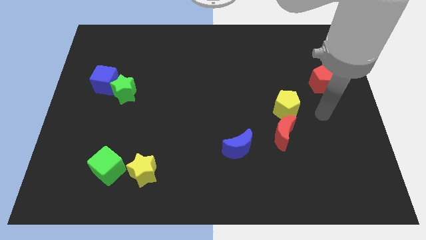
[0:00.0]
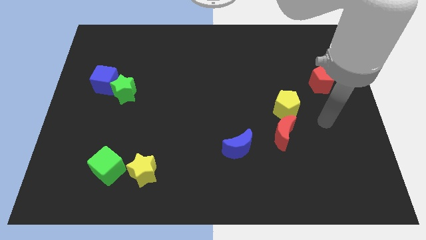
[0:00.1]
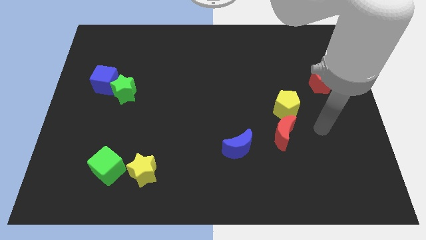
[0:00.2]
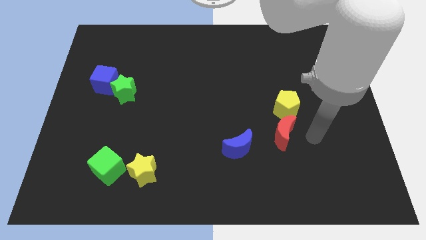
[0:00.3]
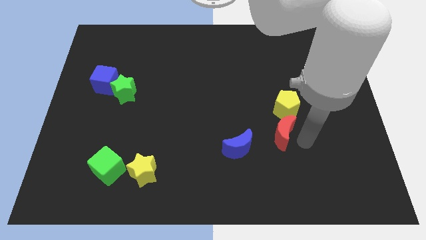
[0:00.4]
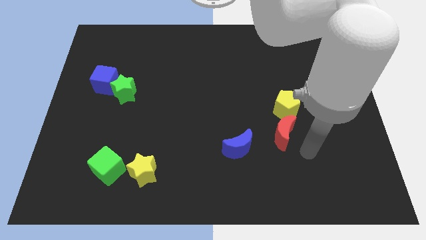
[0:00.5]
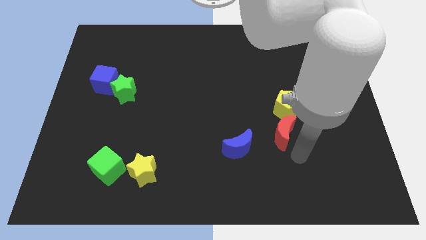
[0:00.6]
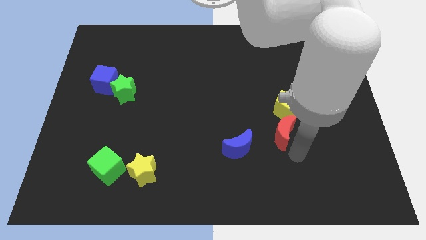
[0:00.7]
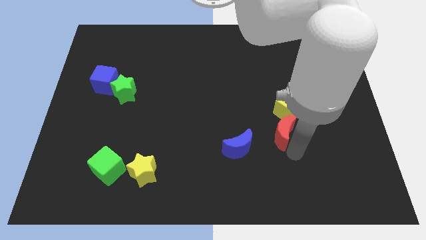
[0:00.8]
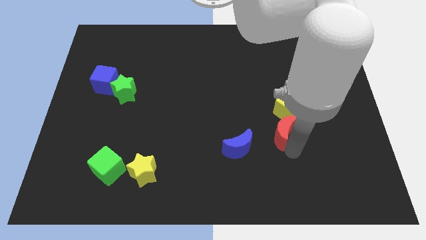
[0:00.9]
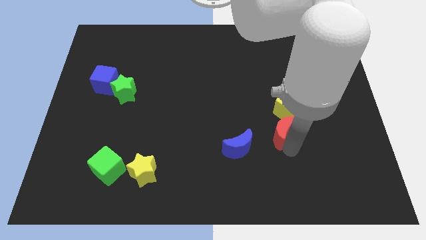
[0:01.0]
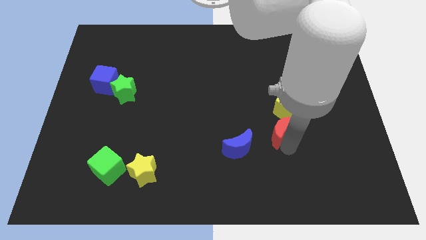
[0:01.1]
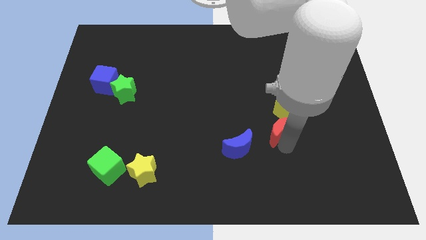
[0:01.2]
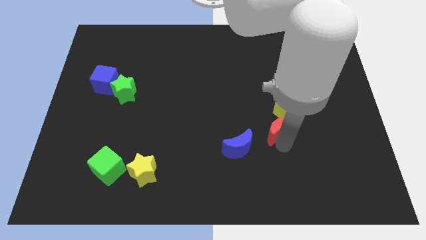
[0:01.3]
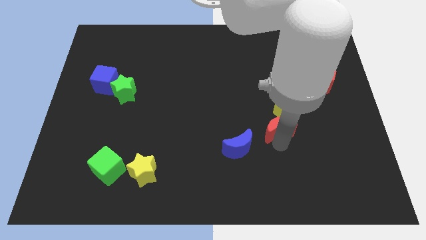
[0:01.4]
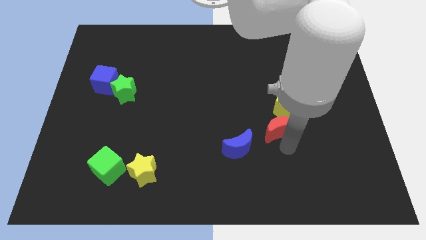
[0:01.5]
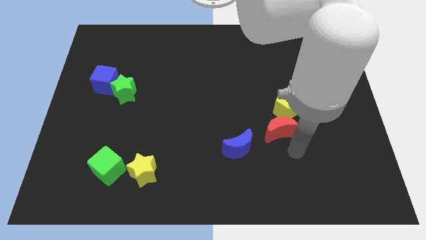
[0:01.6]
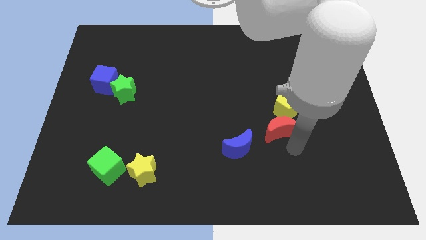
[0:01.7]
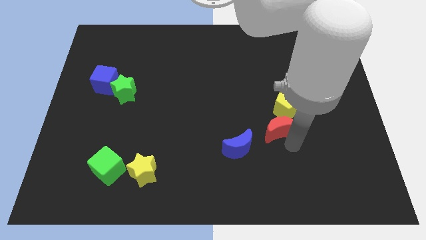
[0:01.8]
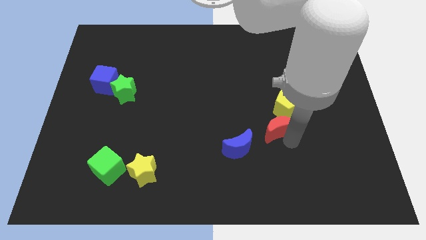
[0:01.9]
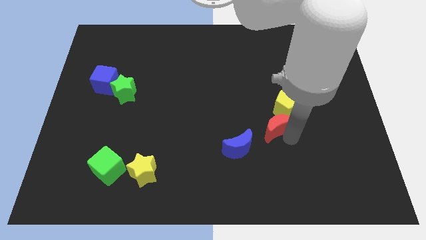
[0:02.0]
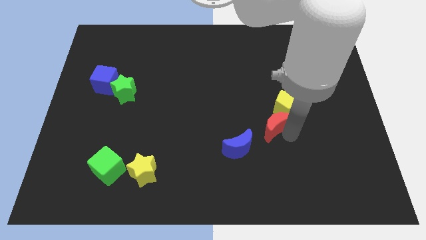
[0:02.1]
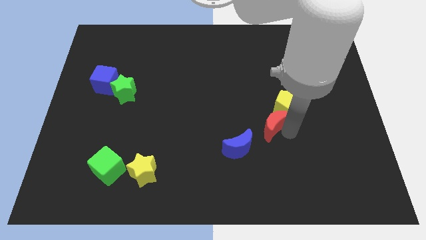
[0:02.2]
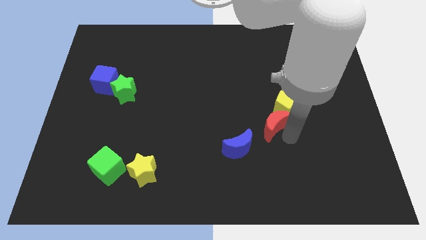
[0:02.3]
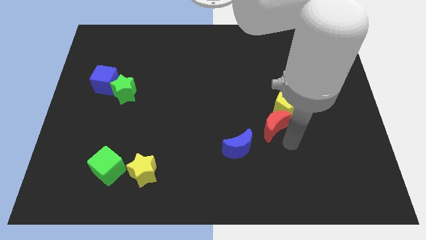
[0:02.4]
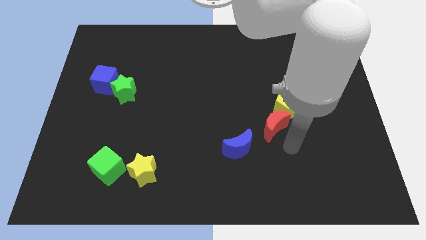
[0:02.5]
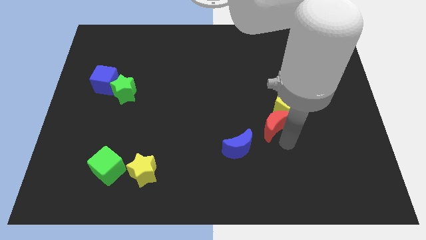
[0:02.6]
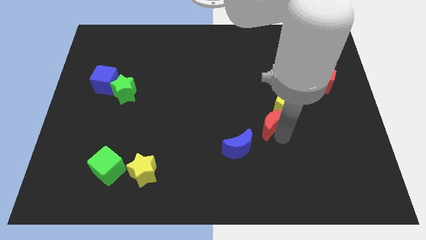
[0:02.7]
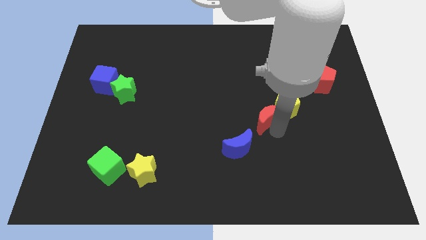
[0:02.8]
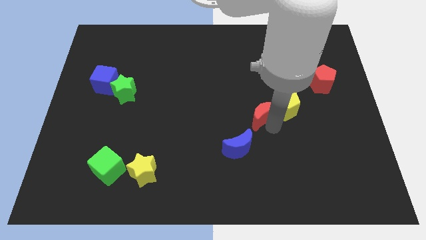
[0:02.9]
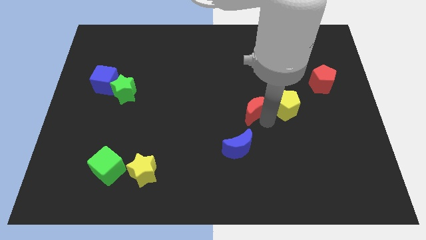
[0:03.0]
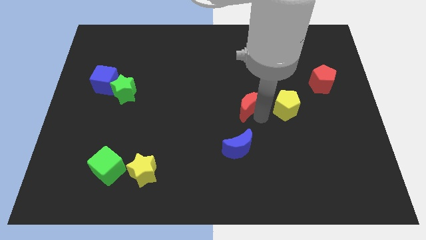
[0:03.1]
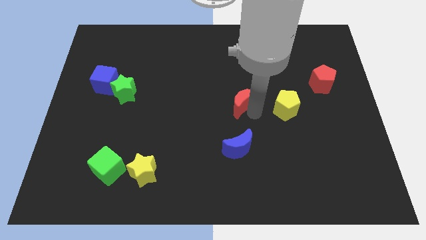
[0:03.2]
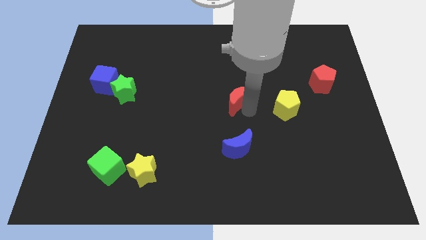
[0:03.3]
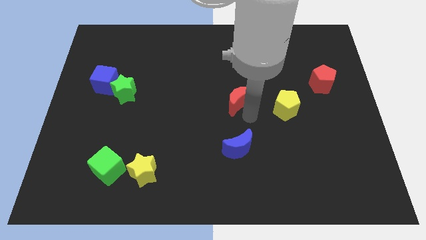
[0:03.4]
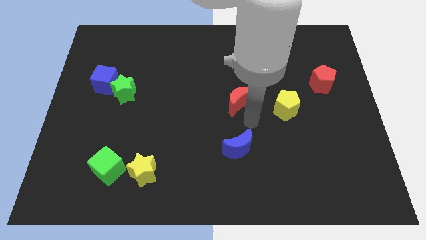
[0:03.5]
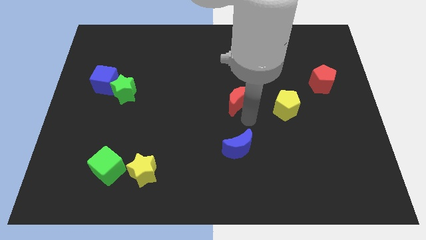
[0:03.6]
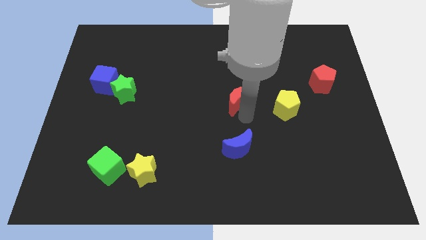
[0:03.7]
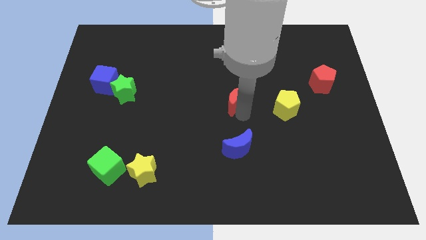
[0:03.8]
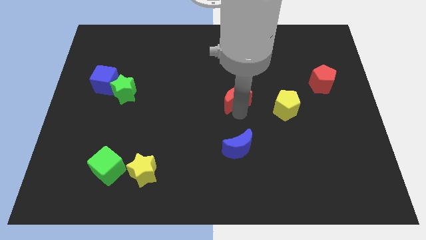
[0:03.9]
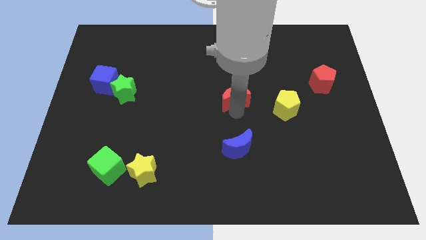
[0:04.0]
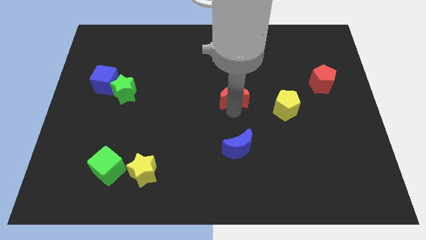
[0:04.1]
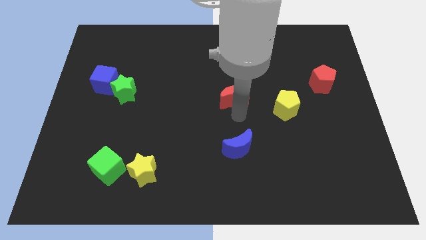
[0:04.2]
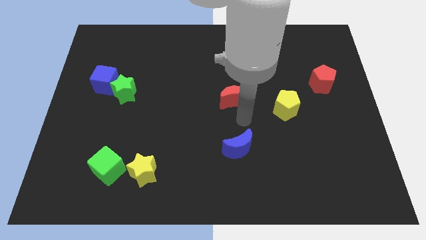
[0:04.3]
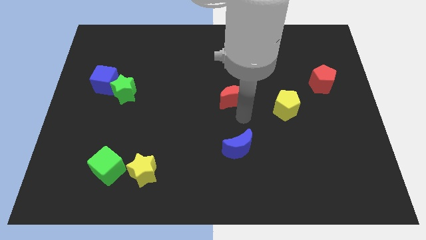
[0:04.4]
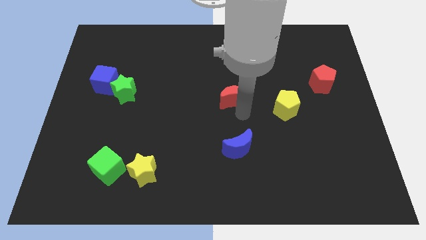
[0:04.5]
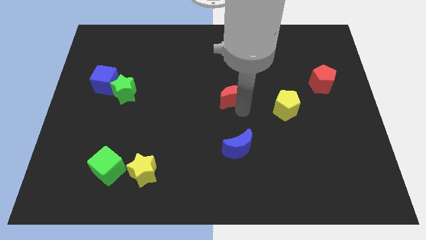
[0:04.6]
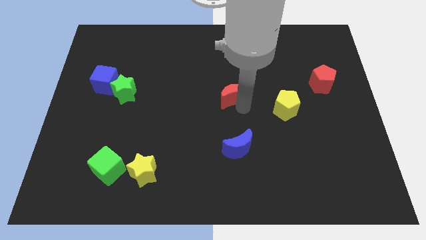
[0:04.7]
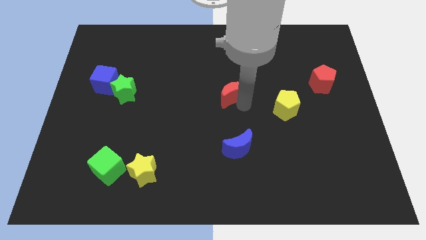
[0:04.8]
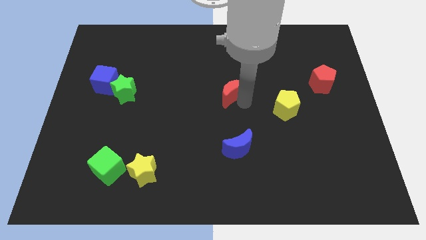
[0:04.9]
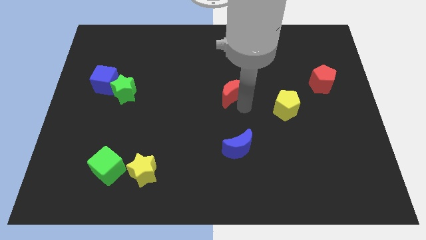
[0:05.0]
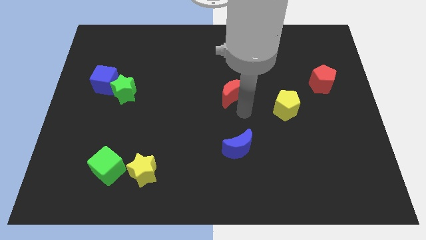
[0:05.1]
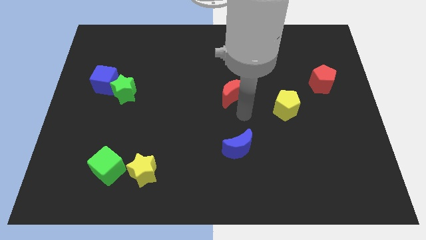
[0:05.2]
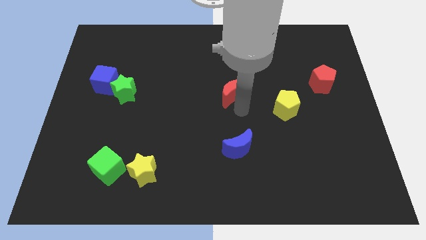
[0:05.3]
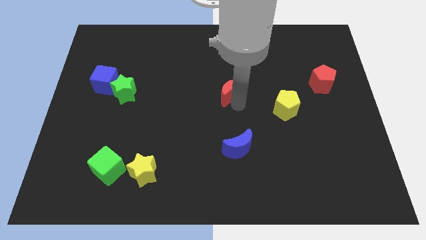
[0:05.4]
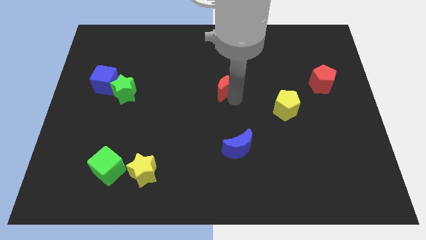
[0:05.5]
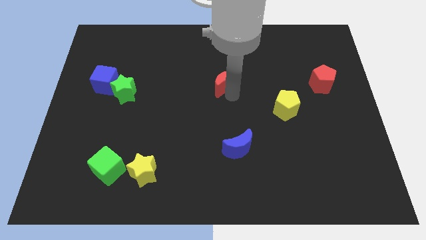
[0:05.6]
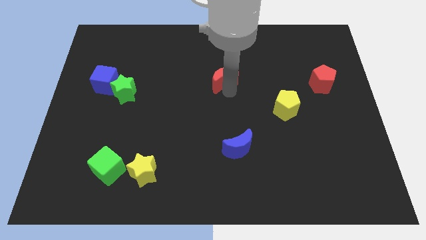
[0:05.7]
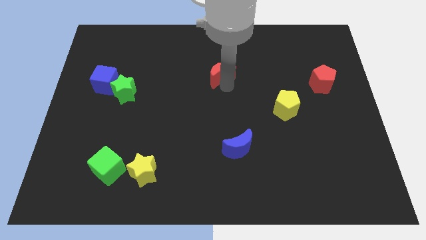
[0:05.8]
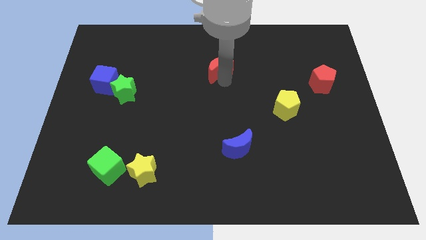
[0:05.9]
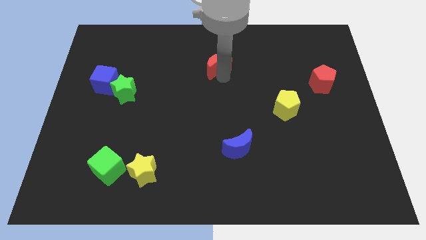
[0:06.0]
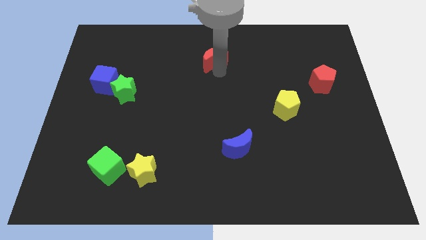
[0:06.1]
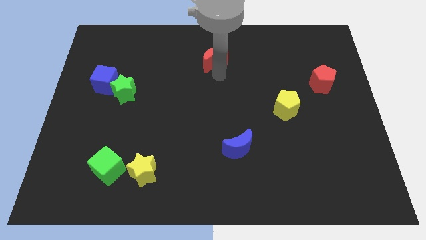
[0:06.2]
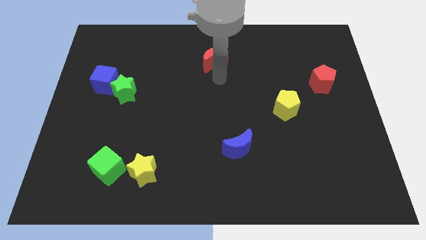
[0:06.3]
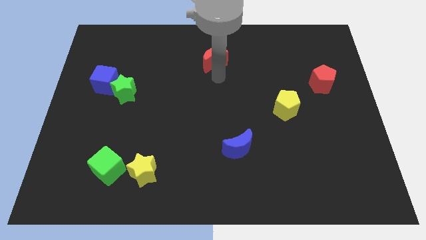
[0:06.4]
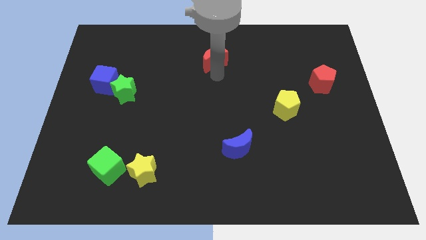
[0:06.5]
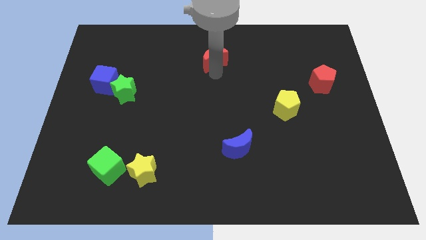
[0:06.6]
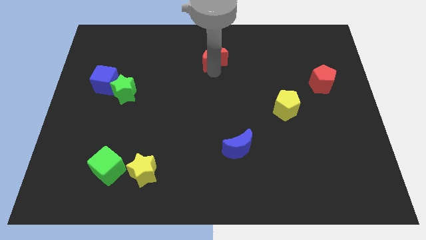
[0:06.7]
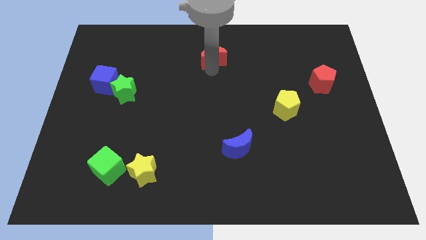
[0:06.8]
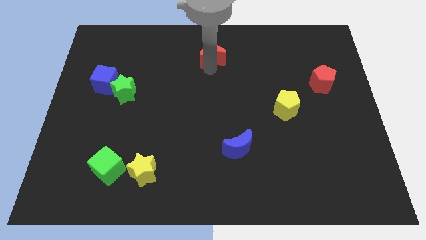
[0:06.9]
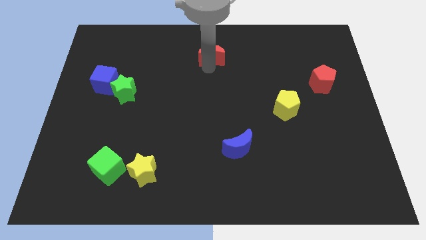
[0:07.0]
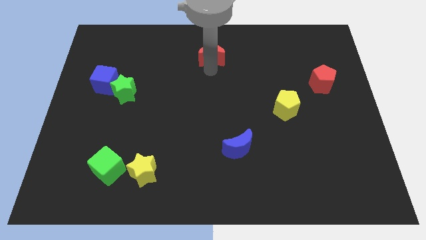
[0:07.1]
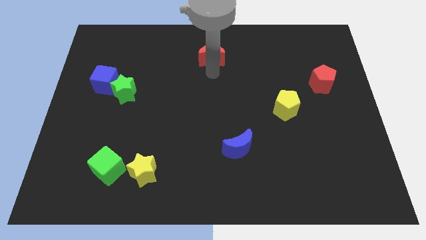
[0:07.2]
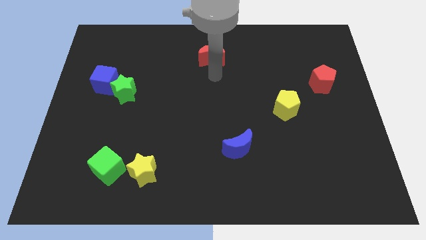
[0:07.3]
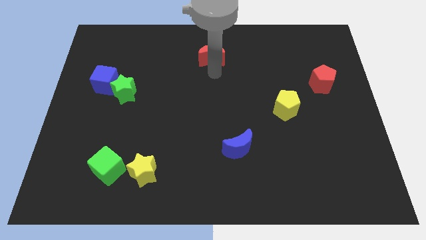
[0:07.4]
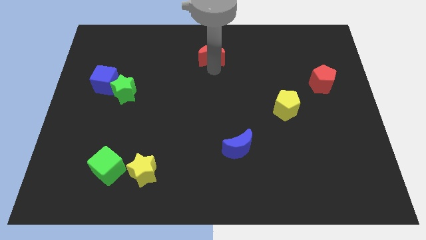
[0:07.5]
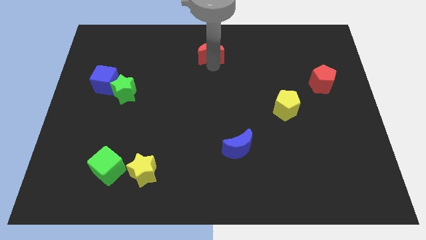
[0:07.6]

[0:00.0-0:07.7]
slide the red moon to the top
